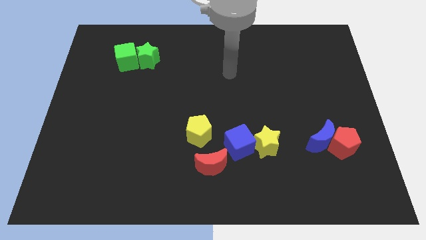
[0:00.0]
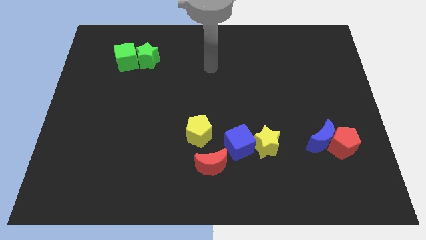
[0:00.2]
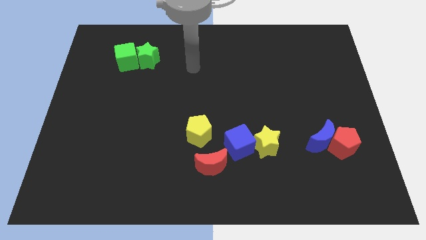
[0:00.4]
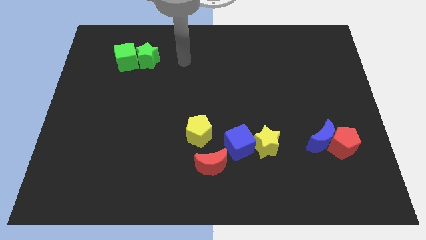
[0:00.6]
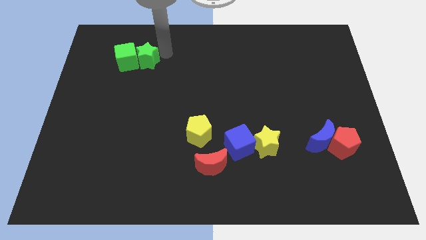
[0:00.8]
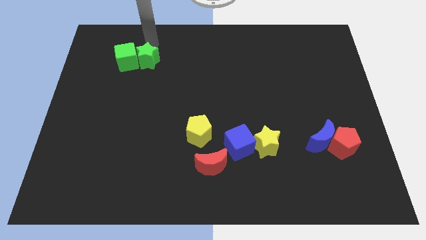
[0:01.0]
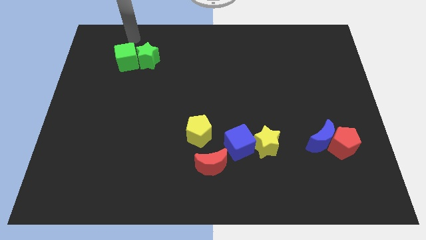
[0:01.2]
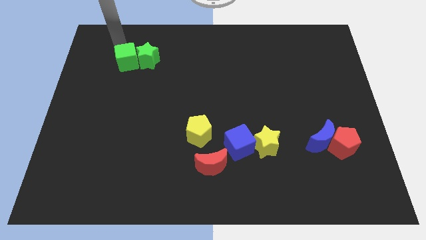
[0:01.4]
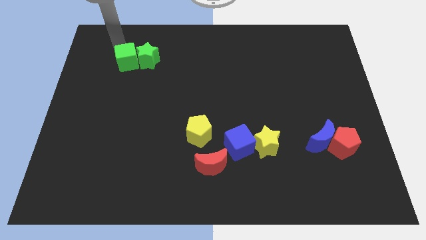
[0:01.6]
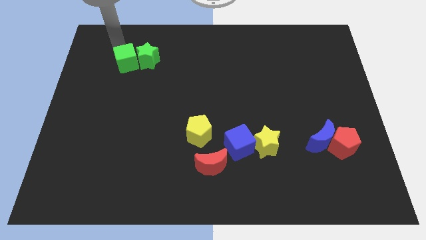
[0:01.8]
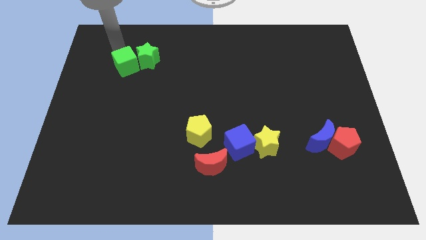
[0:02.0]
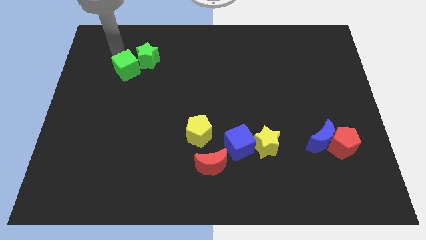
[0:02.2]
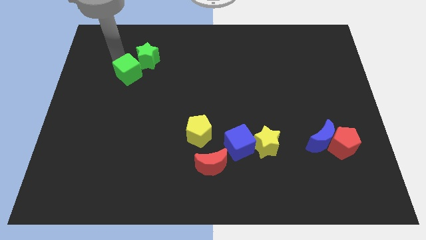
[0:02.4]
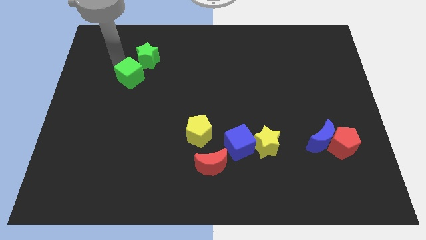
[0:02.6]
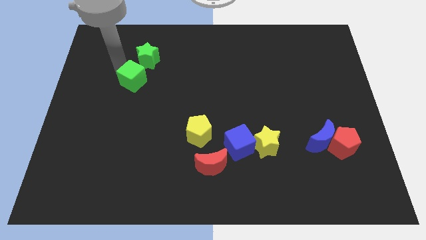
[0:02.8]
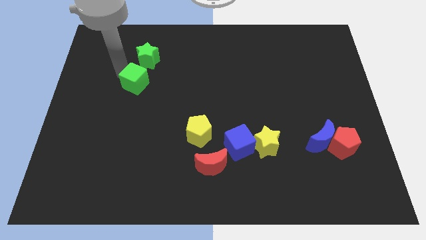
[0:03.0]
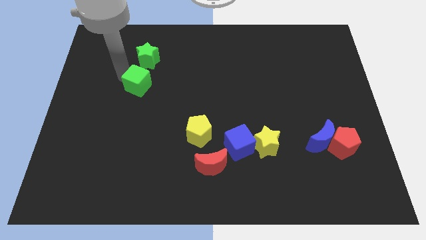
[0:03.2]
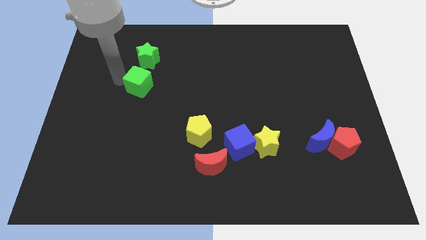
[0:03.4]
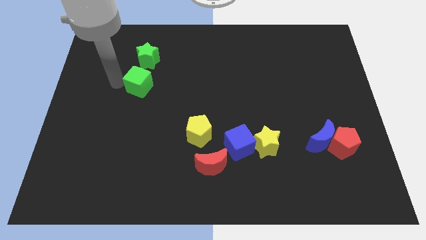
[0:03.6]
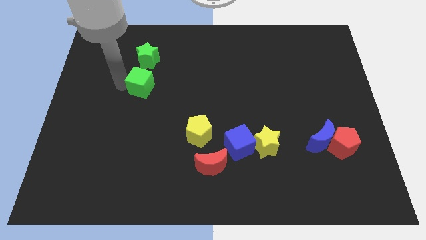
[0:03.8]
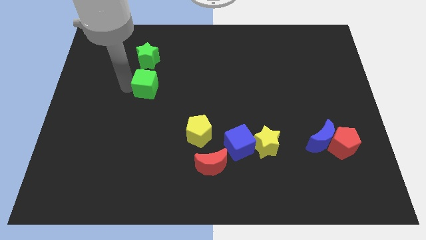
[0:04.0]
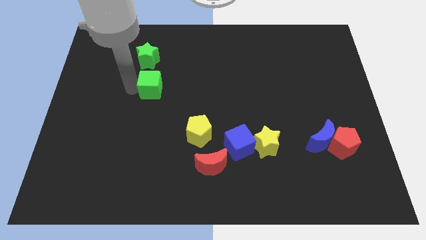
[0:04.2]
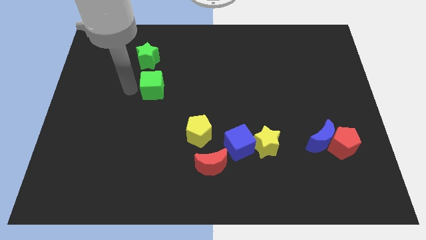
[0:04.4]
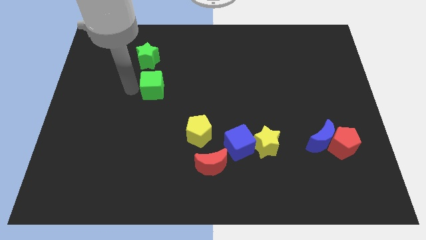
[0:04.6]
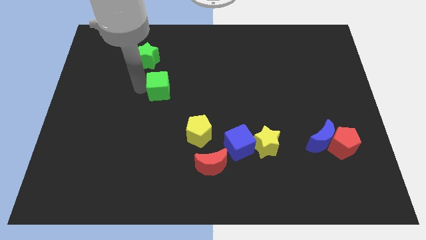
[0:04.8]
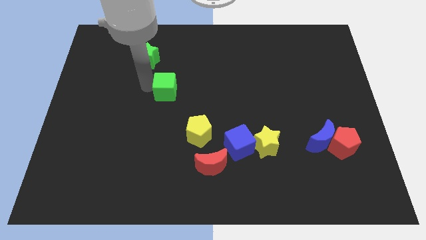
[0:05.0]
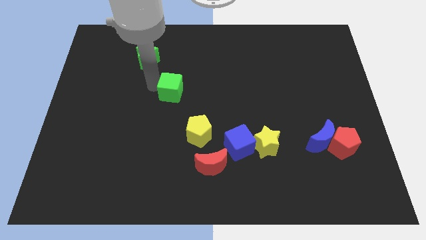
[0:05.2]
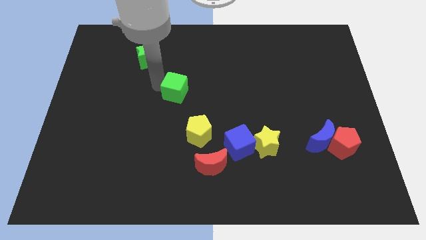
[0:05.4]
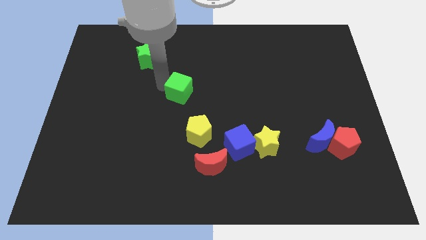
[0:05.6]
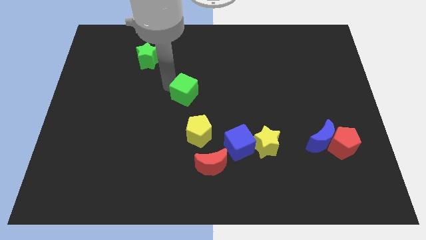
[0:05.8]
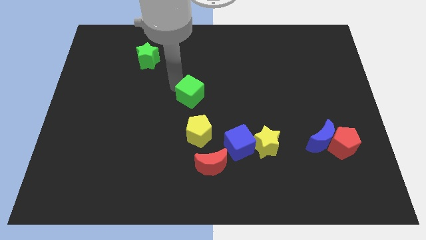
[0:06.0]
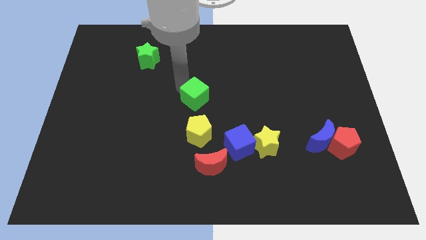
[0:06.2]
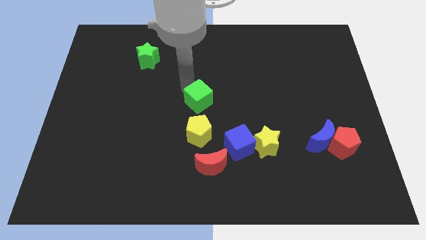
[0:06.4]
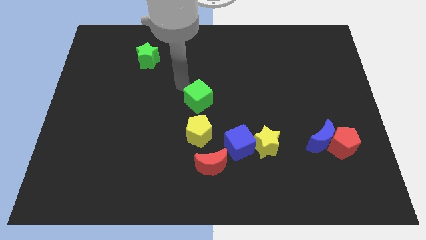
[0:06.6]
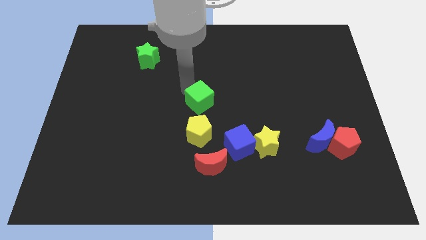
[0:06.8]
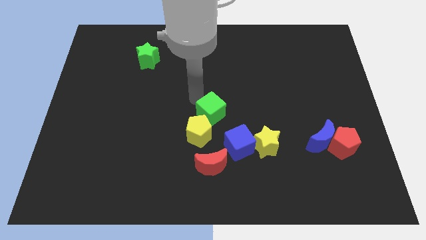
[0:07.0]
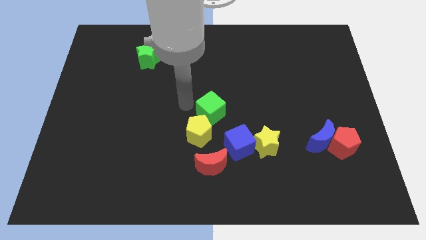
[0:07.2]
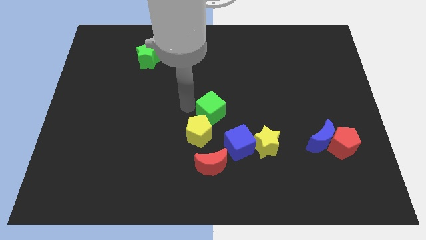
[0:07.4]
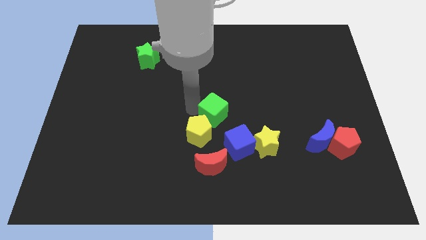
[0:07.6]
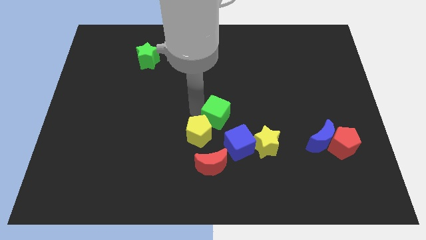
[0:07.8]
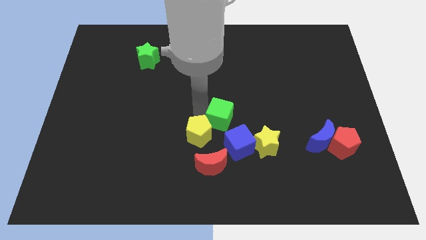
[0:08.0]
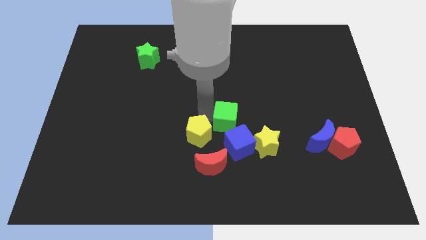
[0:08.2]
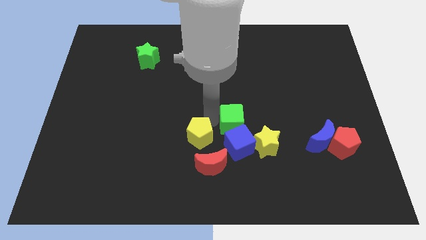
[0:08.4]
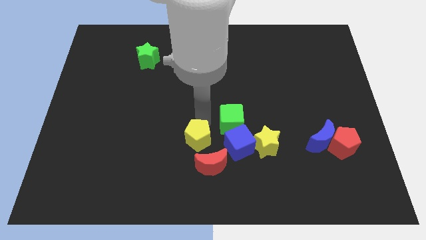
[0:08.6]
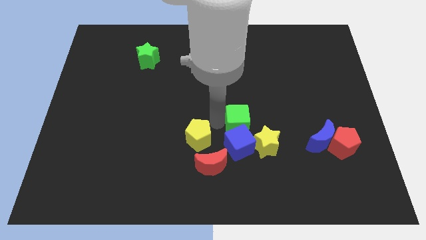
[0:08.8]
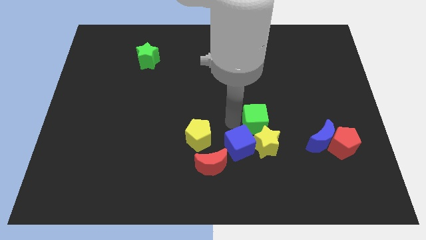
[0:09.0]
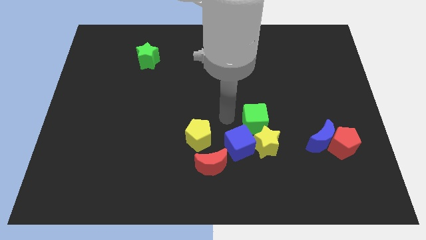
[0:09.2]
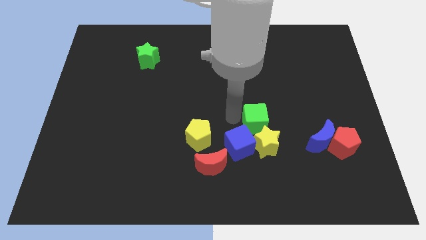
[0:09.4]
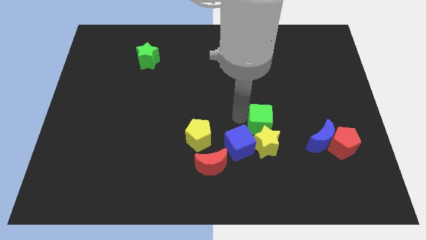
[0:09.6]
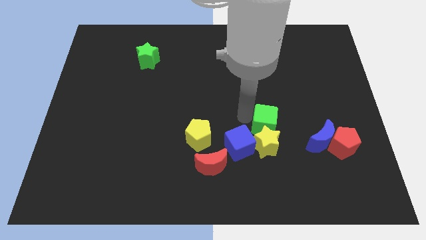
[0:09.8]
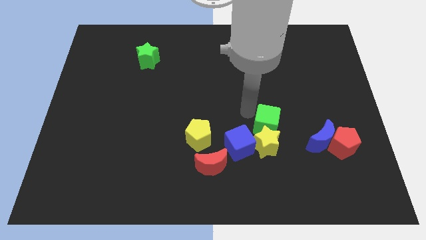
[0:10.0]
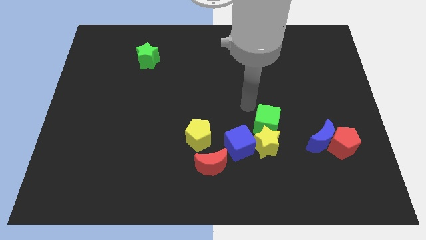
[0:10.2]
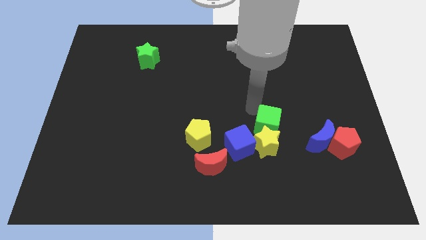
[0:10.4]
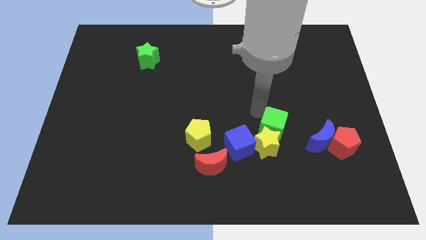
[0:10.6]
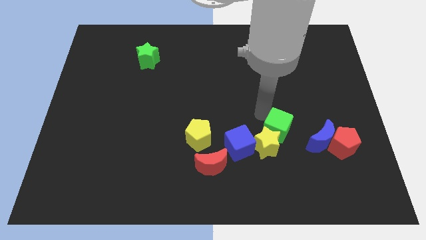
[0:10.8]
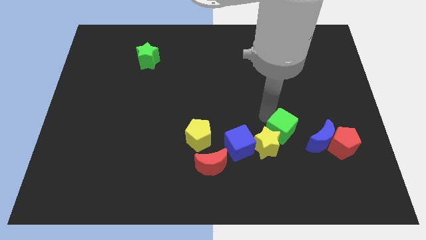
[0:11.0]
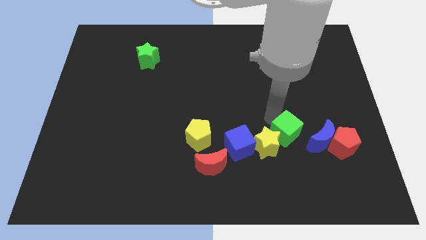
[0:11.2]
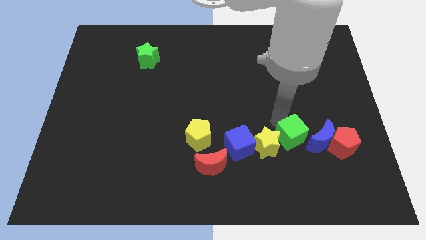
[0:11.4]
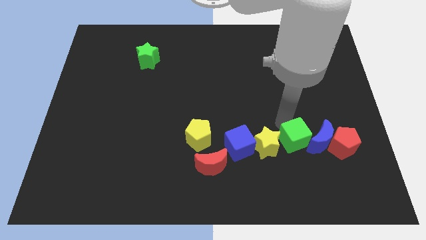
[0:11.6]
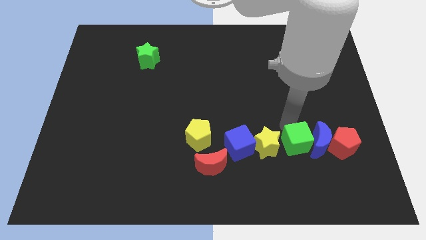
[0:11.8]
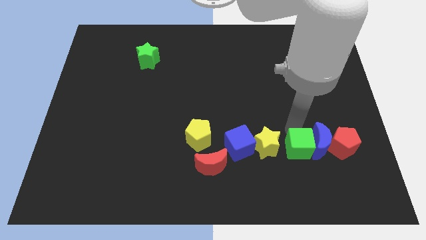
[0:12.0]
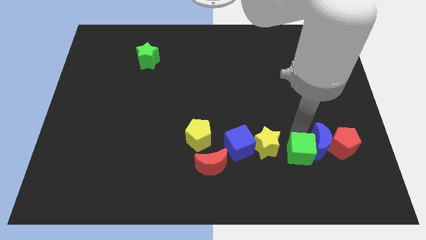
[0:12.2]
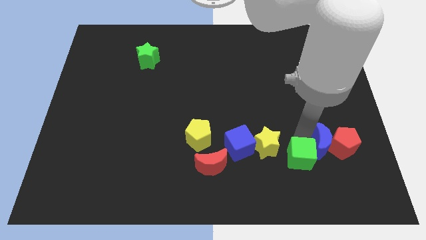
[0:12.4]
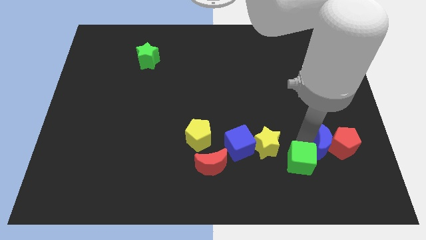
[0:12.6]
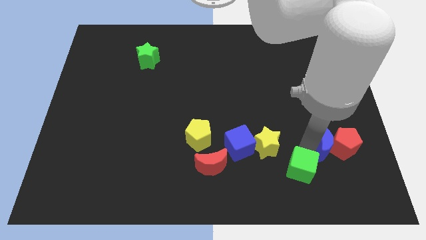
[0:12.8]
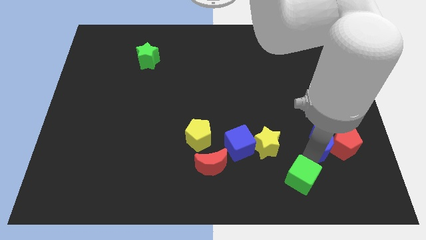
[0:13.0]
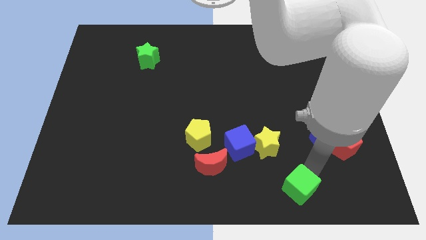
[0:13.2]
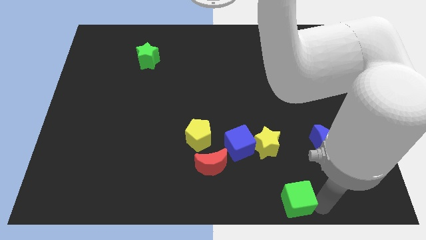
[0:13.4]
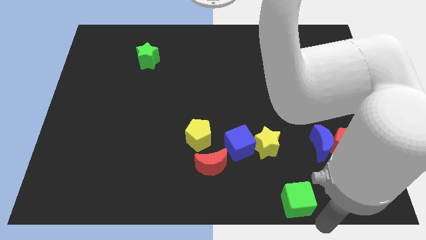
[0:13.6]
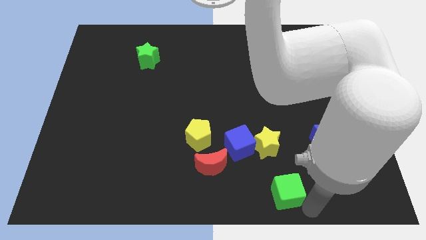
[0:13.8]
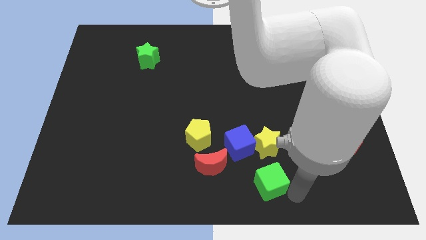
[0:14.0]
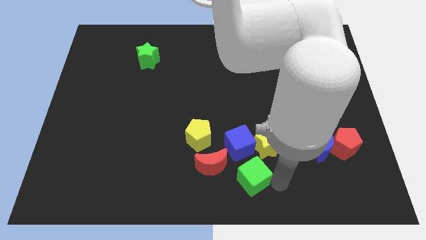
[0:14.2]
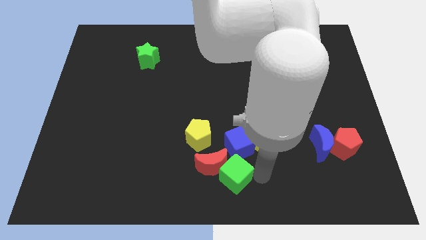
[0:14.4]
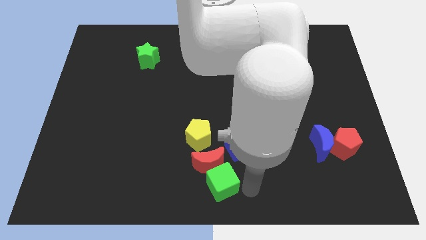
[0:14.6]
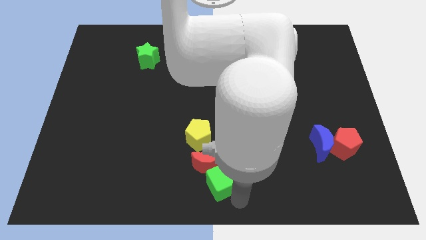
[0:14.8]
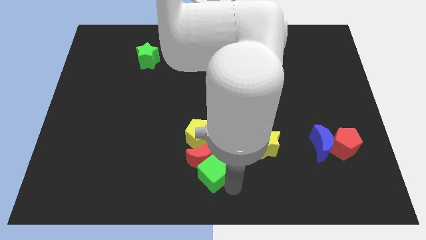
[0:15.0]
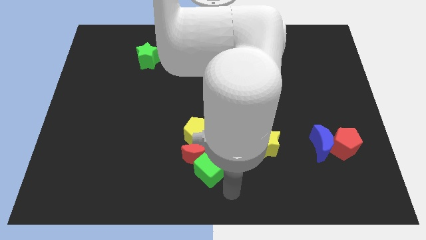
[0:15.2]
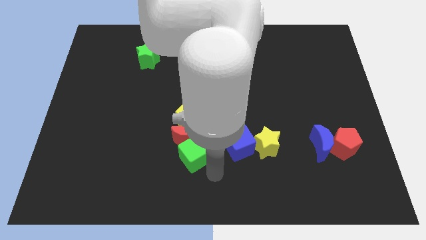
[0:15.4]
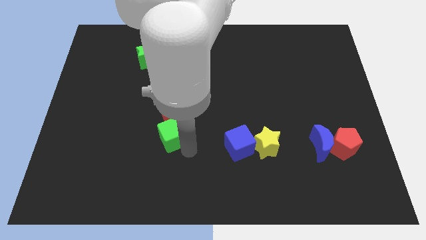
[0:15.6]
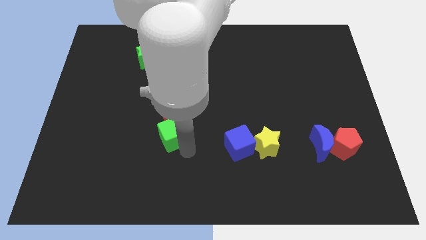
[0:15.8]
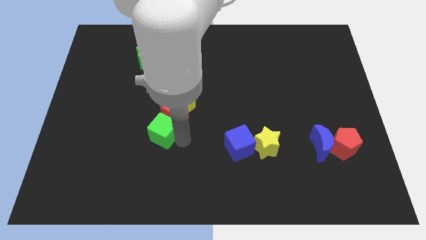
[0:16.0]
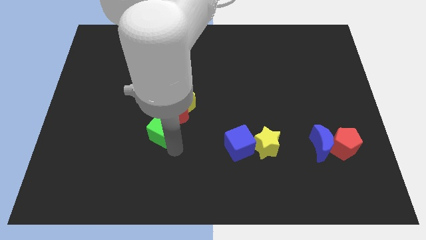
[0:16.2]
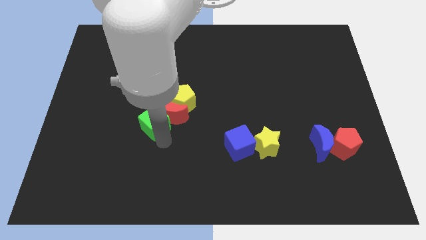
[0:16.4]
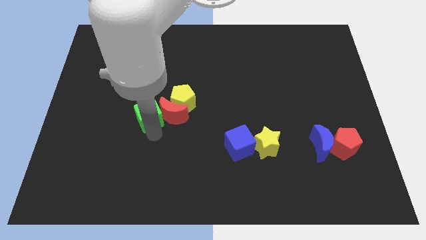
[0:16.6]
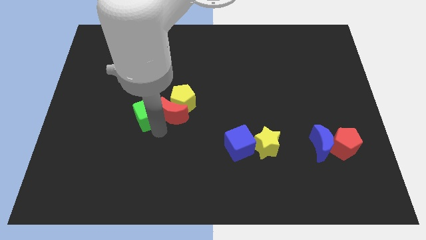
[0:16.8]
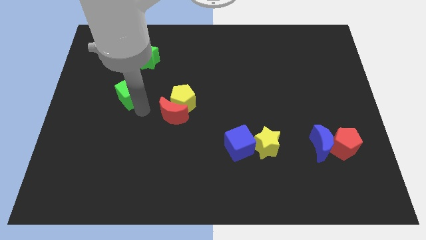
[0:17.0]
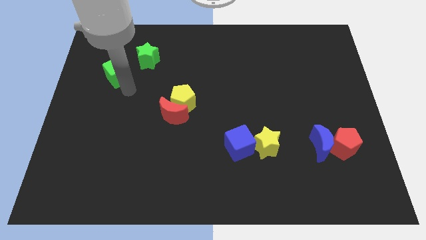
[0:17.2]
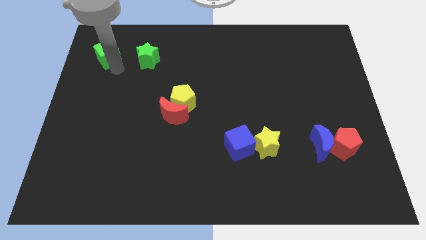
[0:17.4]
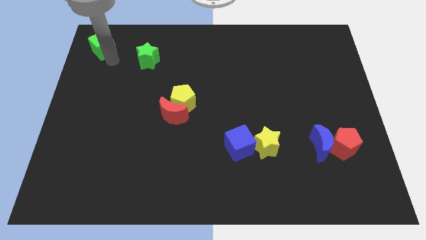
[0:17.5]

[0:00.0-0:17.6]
move the green cube to the top left
